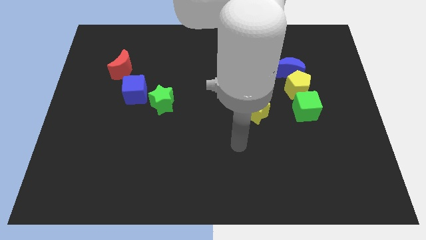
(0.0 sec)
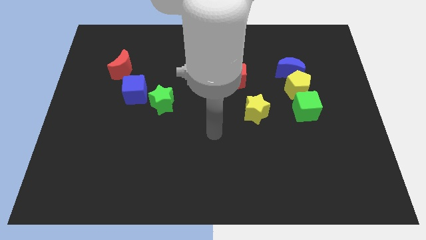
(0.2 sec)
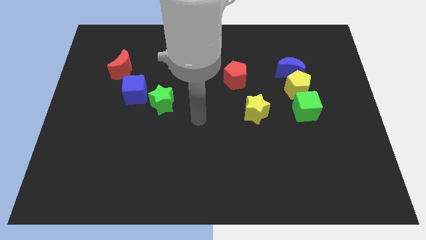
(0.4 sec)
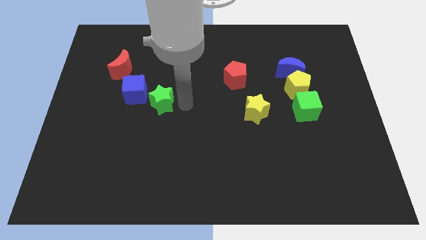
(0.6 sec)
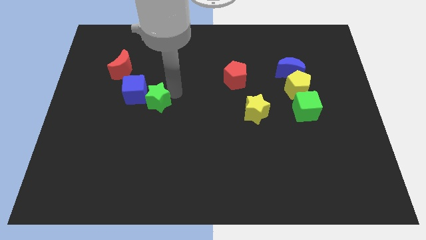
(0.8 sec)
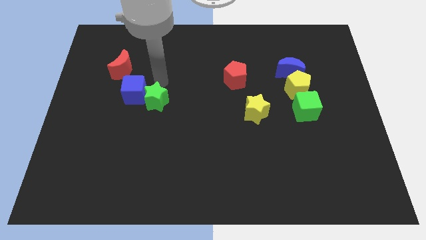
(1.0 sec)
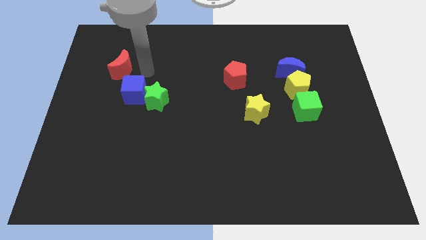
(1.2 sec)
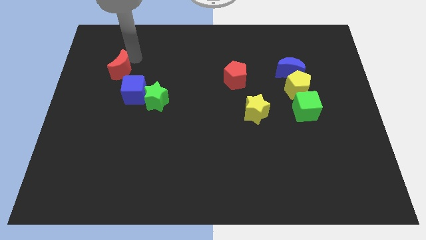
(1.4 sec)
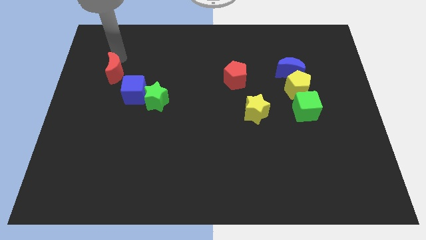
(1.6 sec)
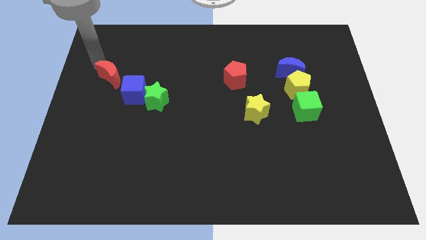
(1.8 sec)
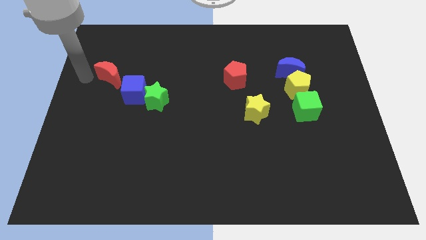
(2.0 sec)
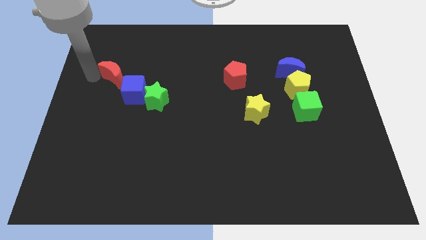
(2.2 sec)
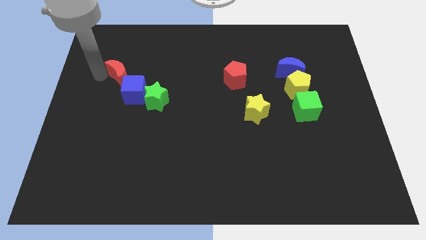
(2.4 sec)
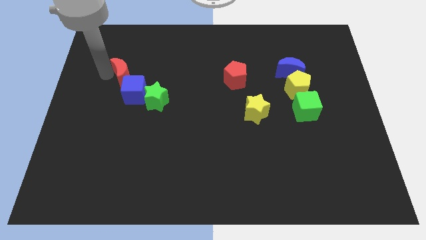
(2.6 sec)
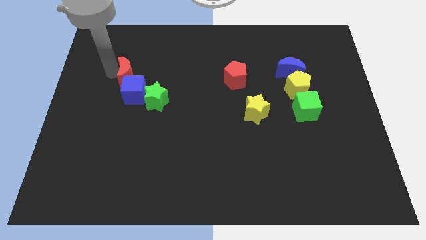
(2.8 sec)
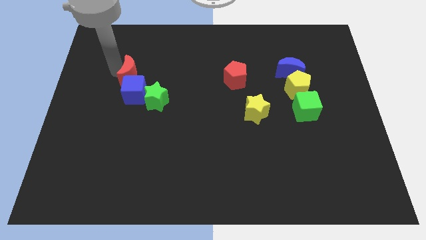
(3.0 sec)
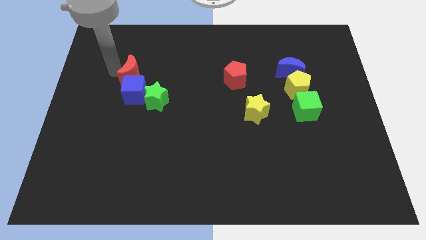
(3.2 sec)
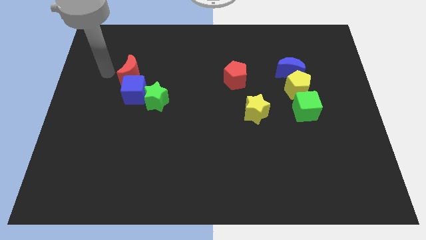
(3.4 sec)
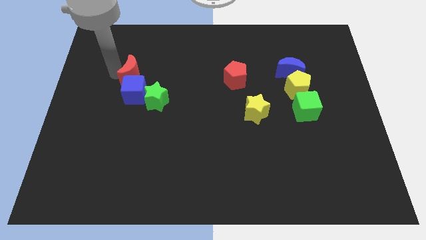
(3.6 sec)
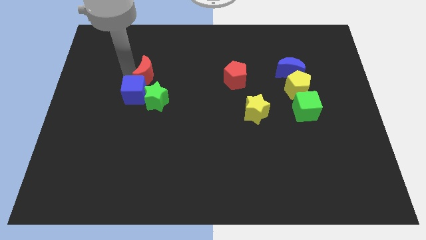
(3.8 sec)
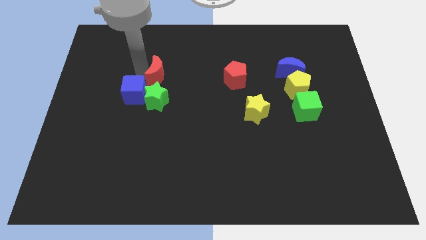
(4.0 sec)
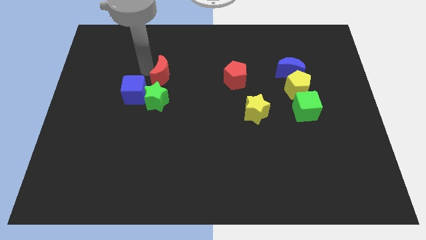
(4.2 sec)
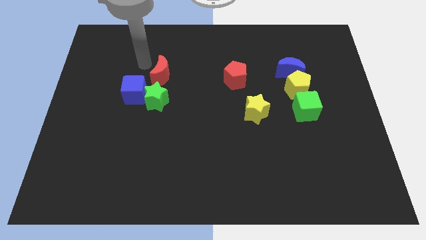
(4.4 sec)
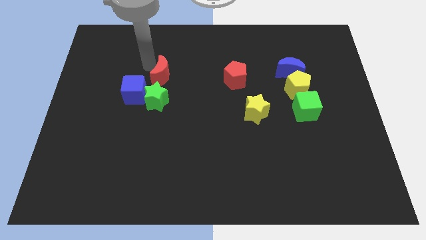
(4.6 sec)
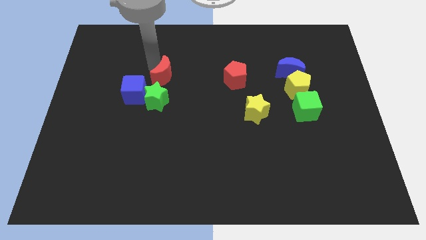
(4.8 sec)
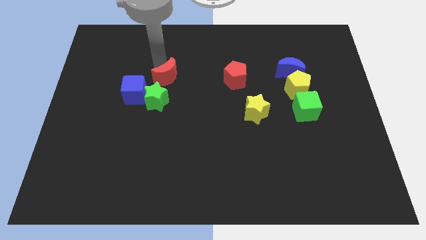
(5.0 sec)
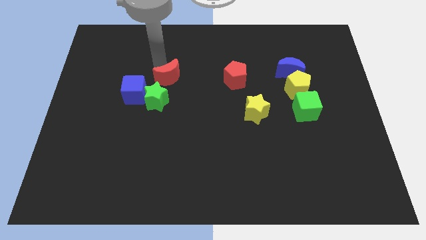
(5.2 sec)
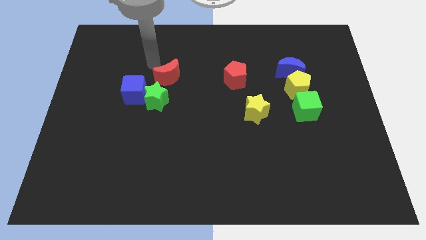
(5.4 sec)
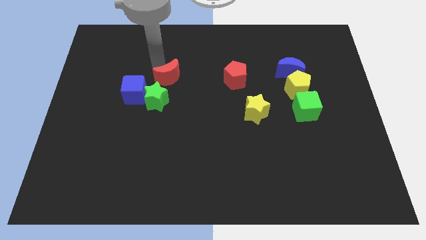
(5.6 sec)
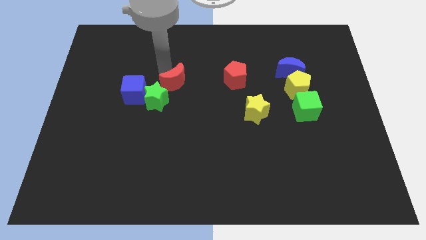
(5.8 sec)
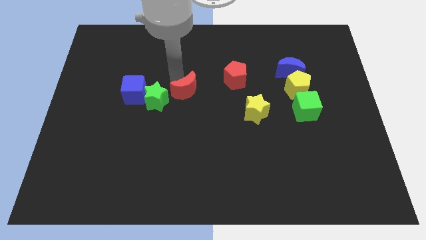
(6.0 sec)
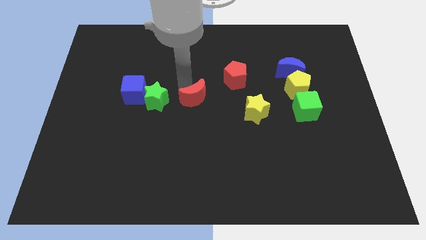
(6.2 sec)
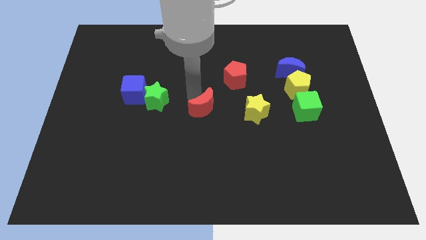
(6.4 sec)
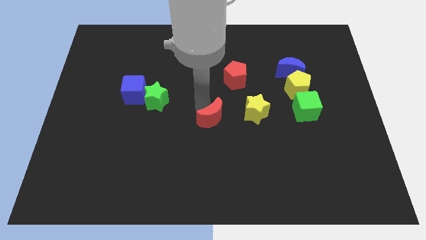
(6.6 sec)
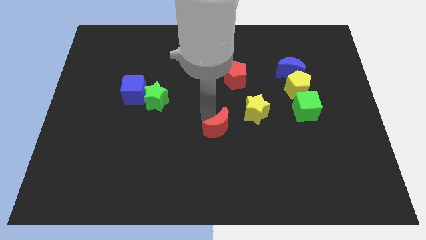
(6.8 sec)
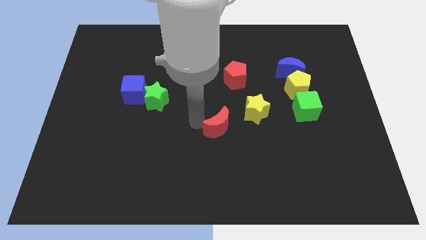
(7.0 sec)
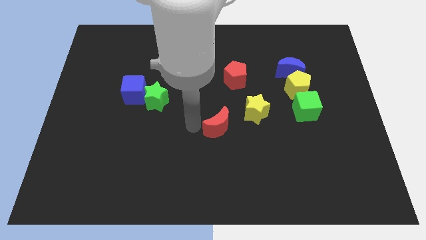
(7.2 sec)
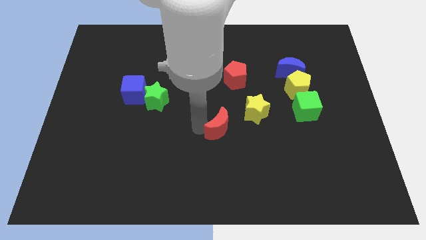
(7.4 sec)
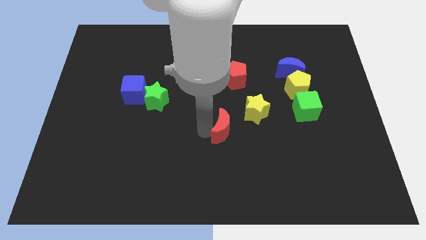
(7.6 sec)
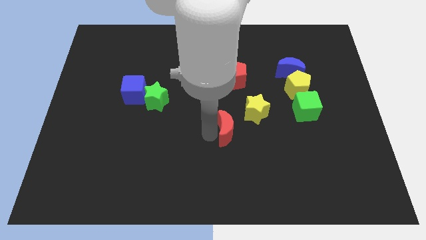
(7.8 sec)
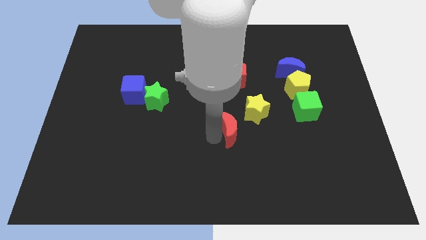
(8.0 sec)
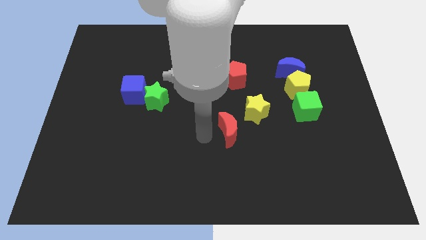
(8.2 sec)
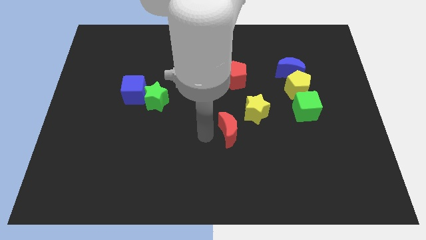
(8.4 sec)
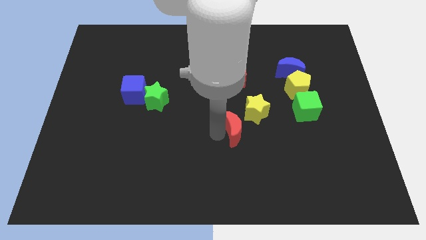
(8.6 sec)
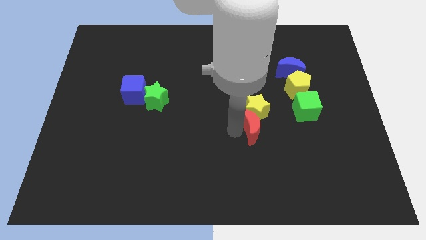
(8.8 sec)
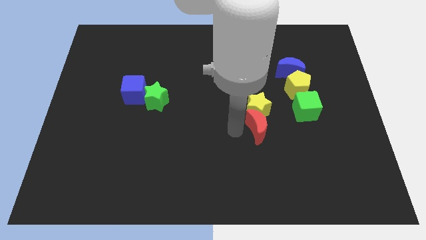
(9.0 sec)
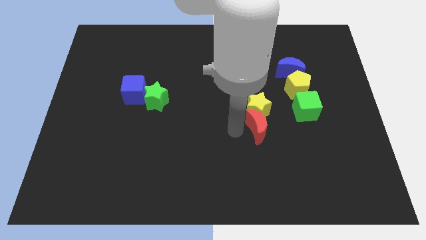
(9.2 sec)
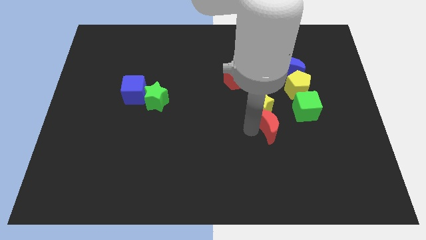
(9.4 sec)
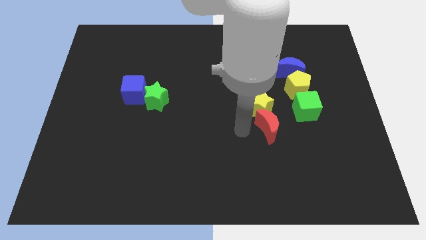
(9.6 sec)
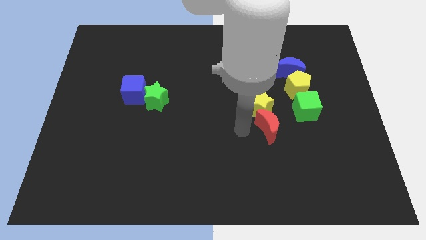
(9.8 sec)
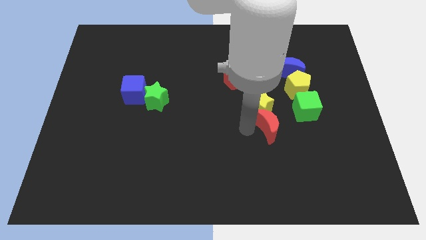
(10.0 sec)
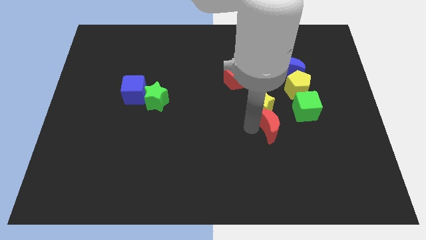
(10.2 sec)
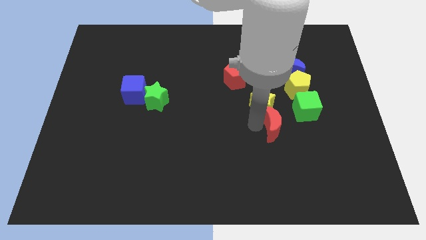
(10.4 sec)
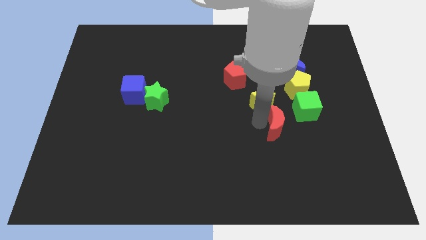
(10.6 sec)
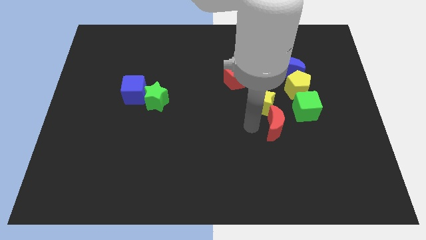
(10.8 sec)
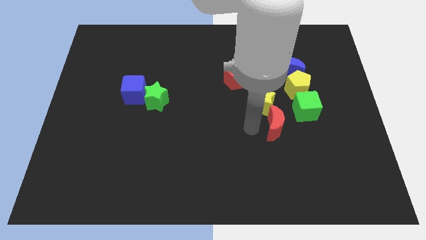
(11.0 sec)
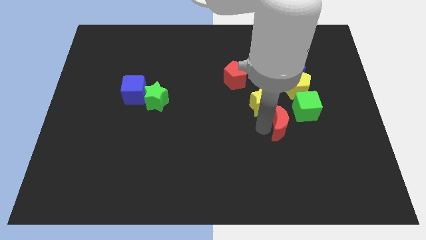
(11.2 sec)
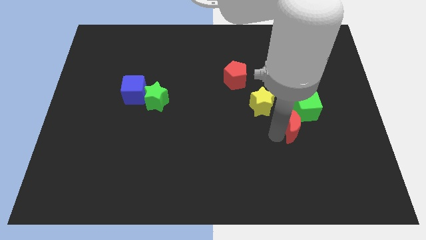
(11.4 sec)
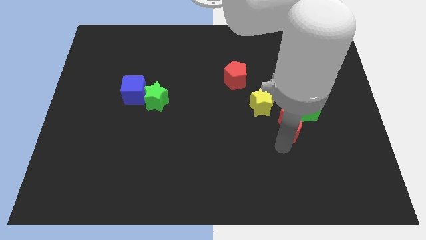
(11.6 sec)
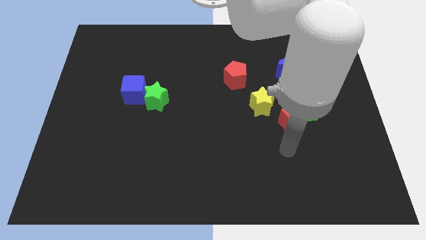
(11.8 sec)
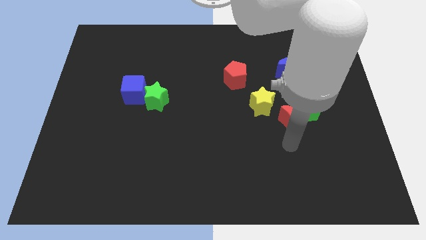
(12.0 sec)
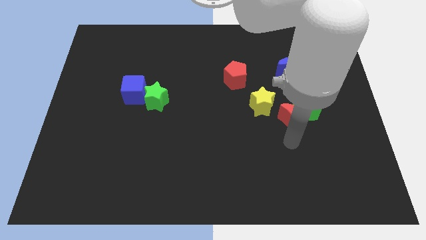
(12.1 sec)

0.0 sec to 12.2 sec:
move the red moon to the bottom of the blue moon

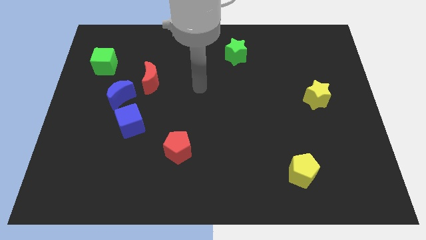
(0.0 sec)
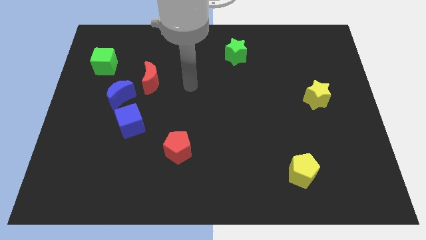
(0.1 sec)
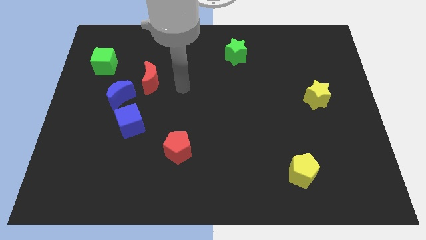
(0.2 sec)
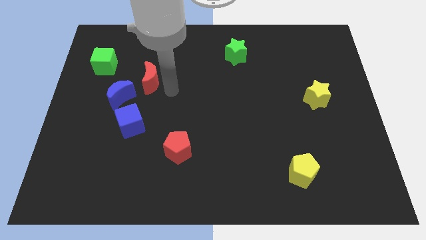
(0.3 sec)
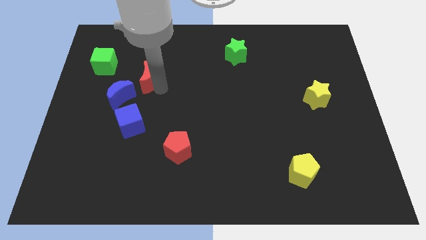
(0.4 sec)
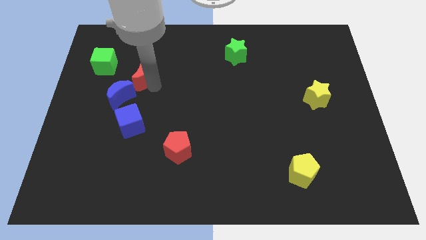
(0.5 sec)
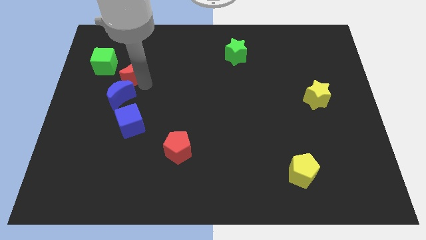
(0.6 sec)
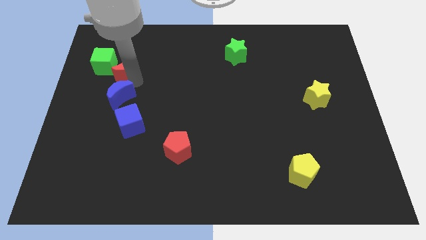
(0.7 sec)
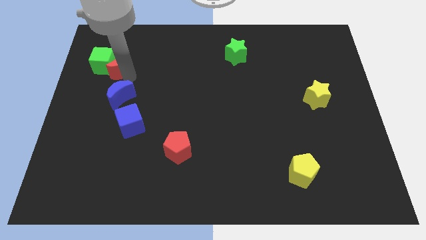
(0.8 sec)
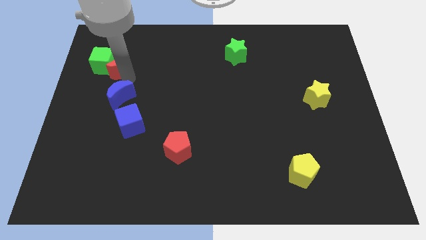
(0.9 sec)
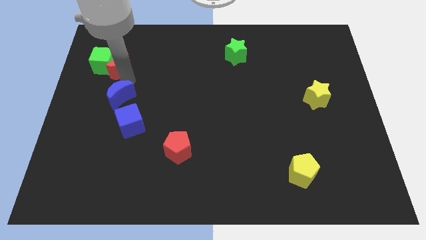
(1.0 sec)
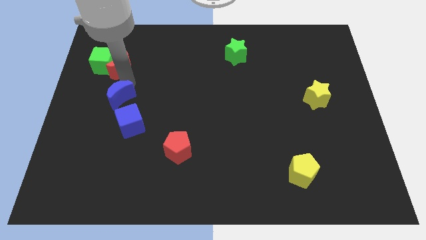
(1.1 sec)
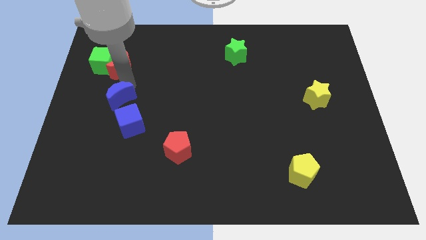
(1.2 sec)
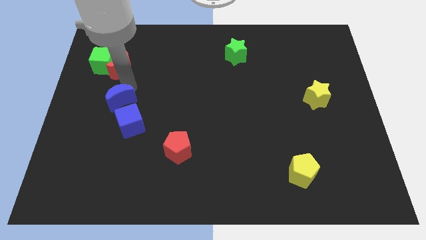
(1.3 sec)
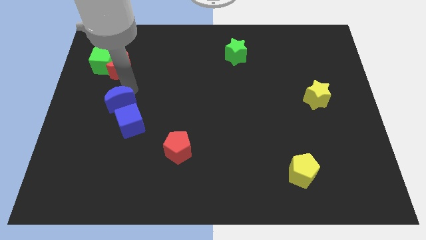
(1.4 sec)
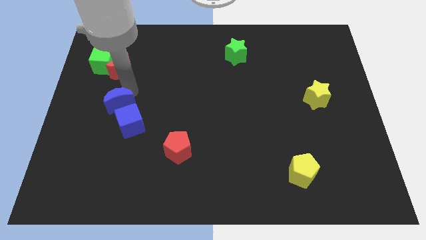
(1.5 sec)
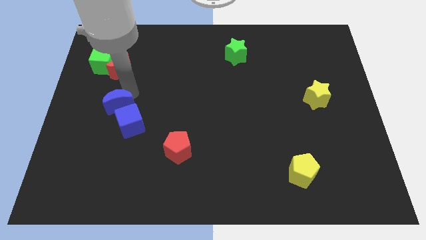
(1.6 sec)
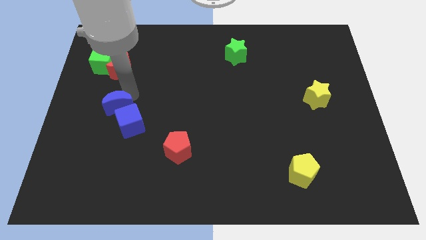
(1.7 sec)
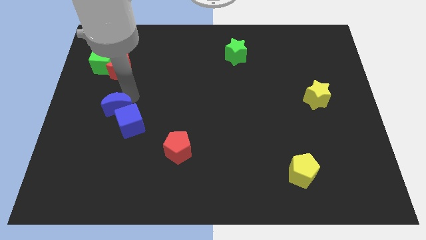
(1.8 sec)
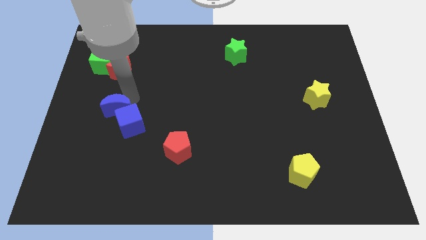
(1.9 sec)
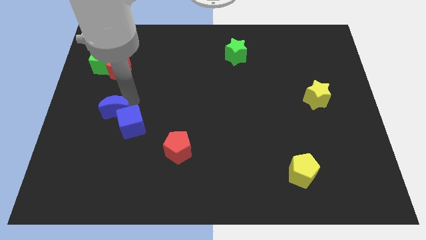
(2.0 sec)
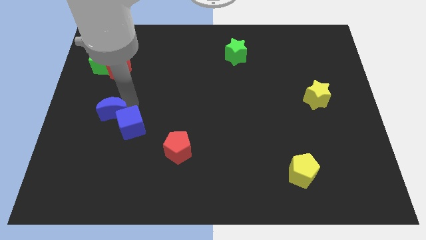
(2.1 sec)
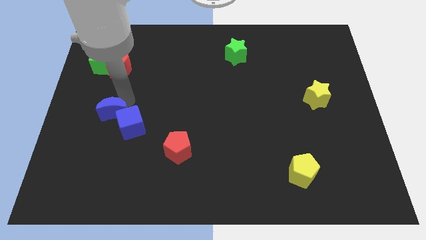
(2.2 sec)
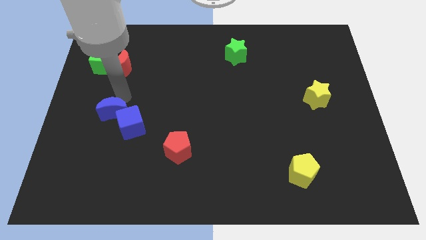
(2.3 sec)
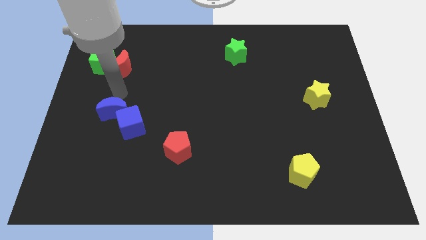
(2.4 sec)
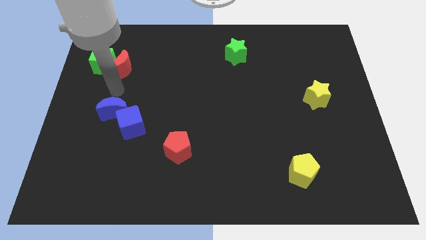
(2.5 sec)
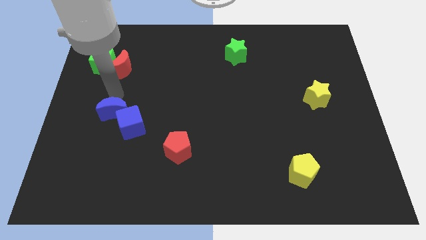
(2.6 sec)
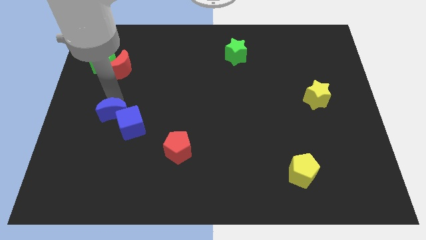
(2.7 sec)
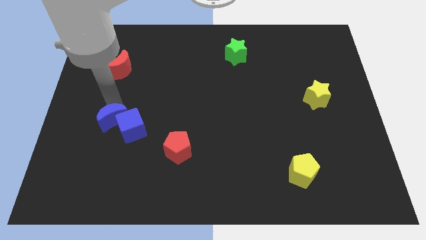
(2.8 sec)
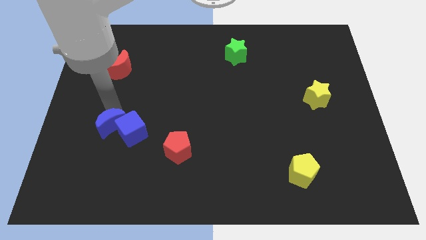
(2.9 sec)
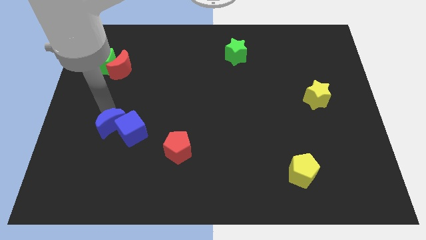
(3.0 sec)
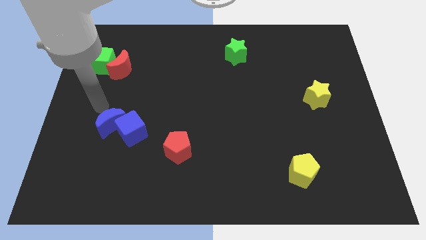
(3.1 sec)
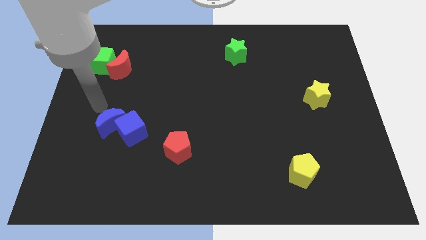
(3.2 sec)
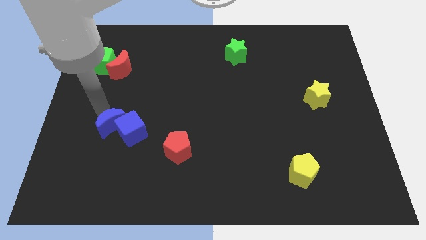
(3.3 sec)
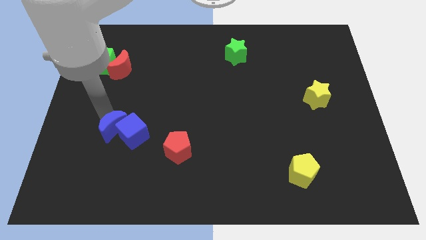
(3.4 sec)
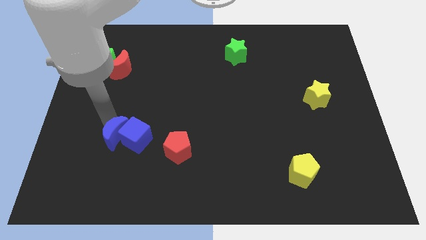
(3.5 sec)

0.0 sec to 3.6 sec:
slide the blue moon left of the red pentagon
